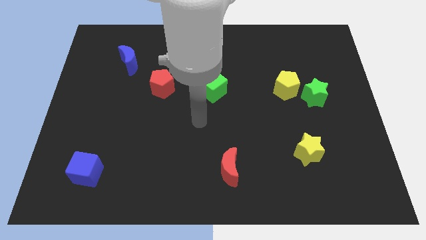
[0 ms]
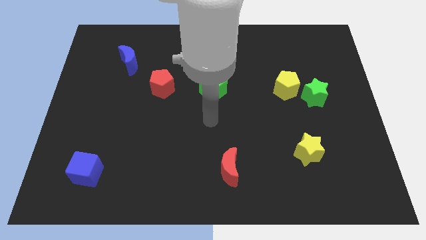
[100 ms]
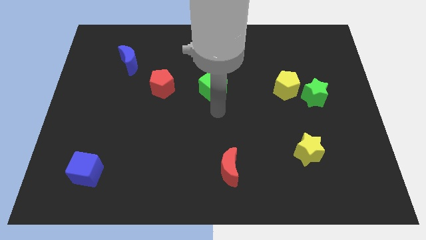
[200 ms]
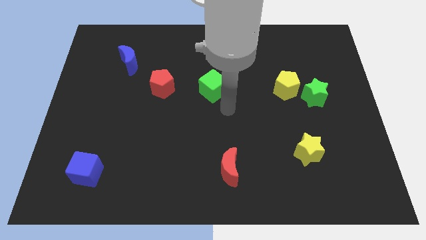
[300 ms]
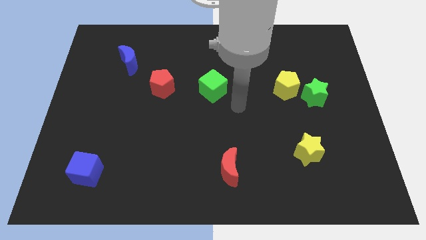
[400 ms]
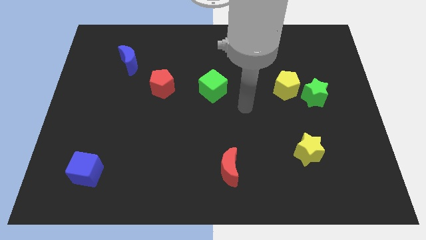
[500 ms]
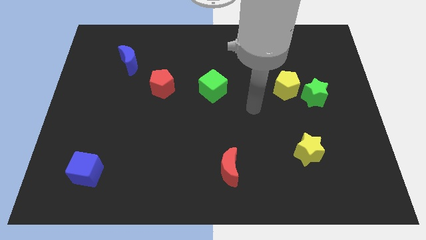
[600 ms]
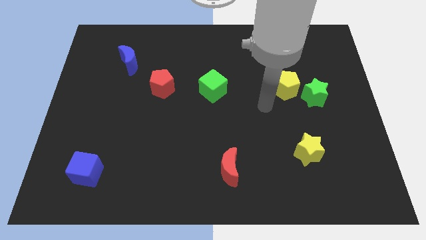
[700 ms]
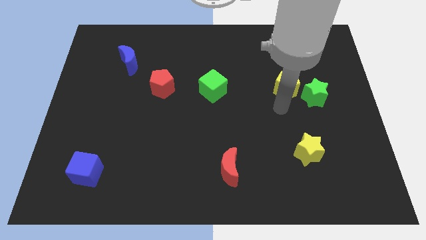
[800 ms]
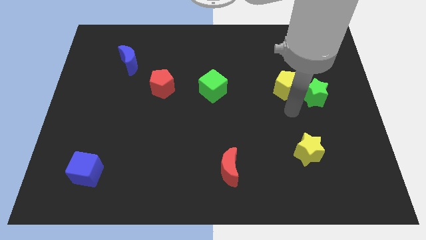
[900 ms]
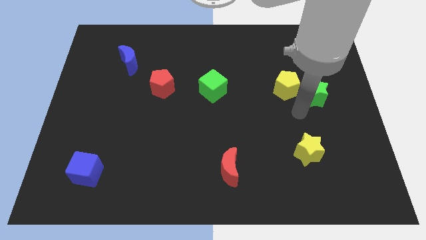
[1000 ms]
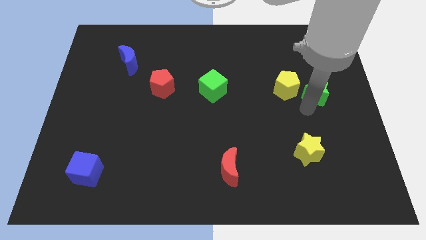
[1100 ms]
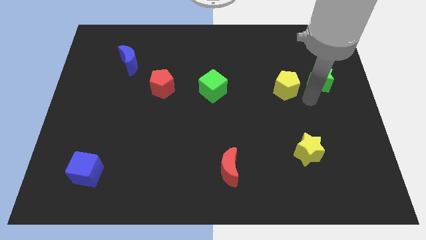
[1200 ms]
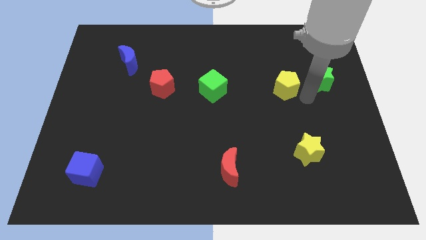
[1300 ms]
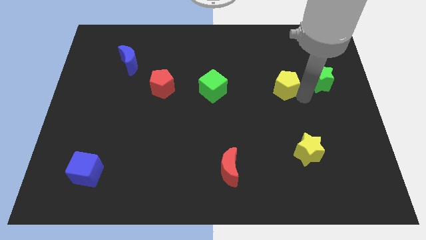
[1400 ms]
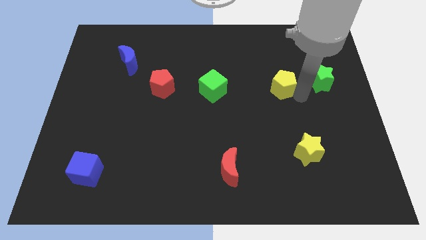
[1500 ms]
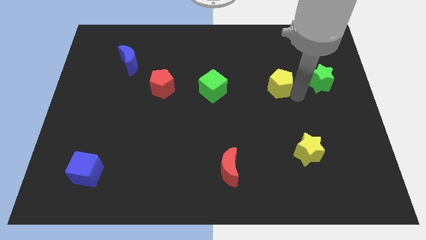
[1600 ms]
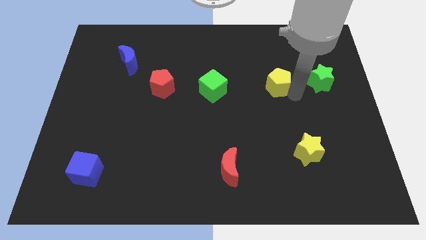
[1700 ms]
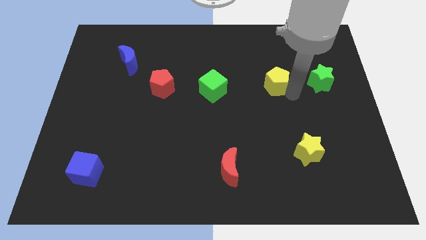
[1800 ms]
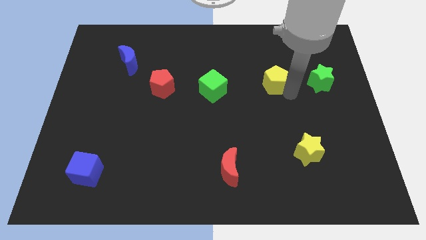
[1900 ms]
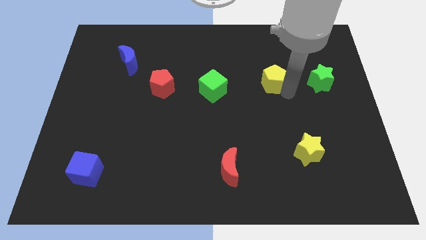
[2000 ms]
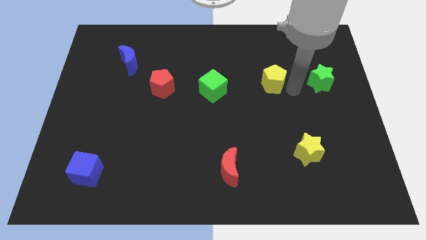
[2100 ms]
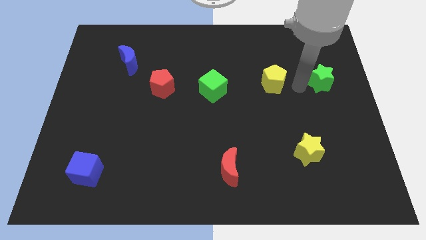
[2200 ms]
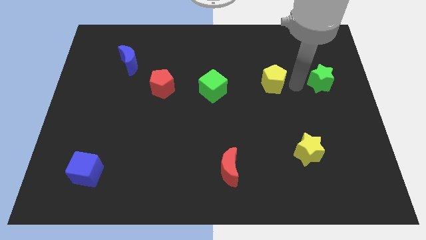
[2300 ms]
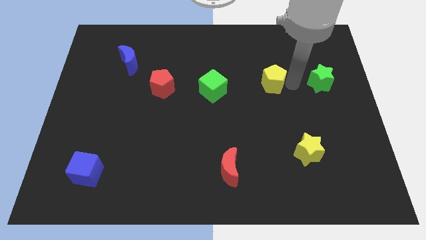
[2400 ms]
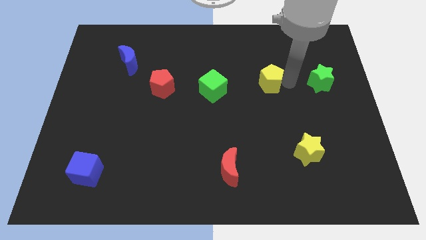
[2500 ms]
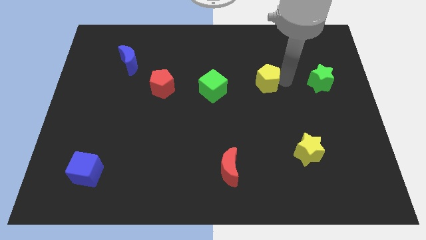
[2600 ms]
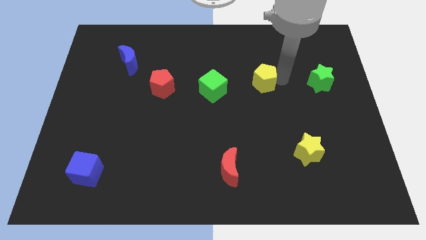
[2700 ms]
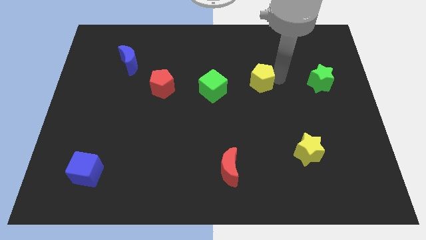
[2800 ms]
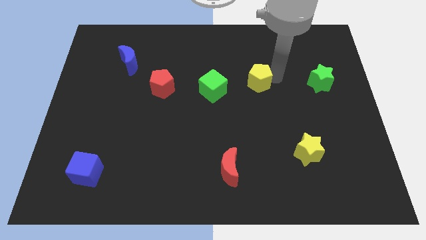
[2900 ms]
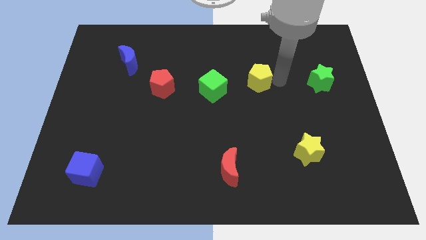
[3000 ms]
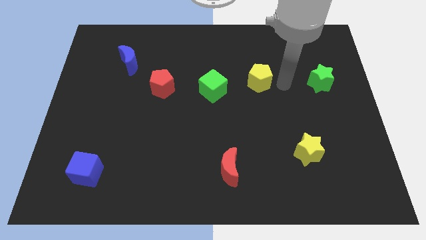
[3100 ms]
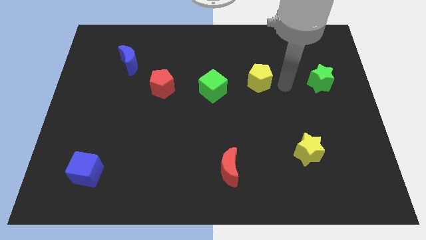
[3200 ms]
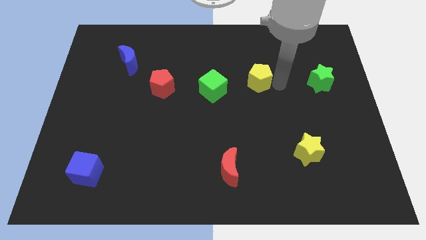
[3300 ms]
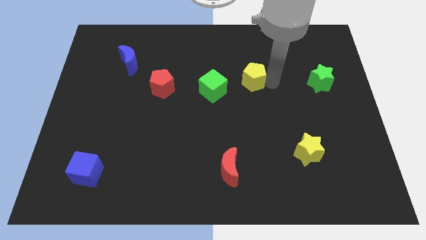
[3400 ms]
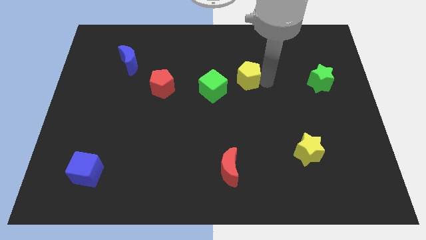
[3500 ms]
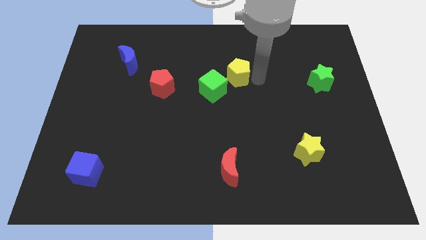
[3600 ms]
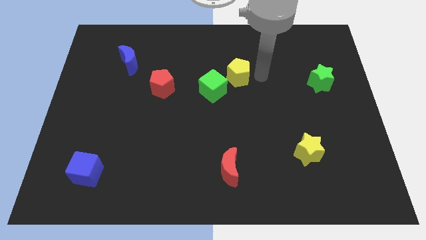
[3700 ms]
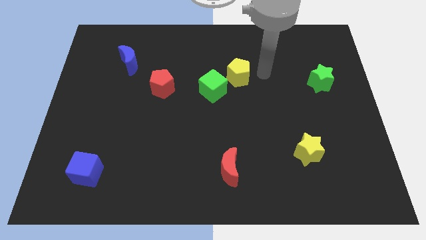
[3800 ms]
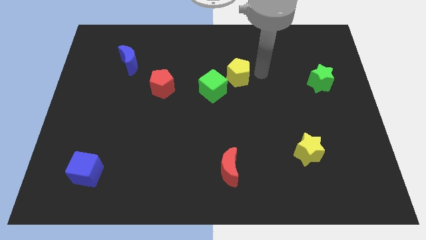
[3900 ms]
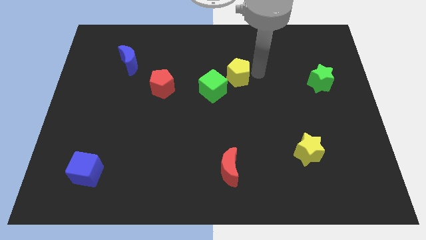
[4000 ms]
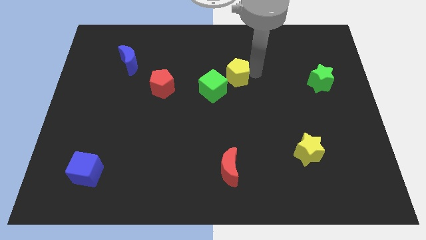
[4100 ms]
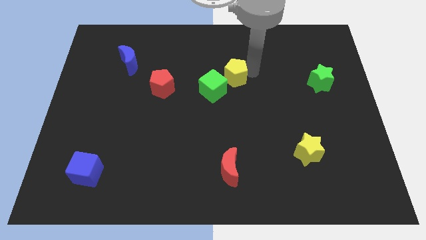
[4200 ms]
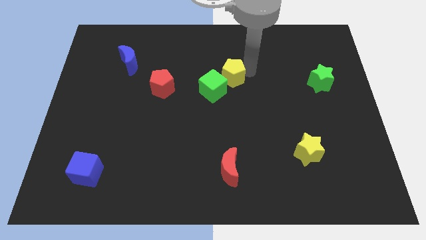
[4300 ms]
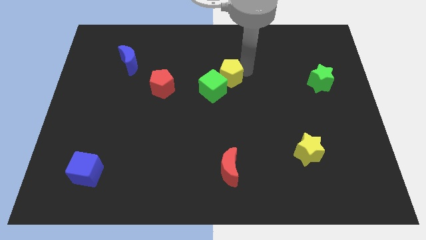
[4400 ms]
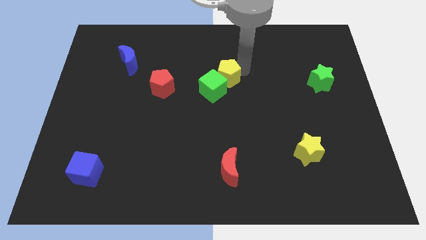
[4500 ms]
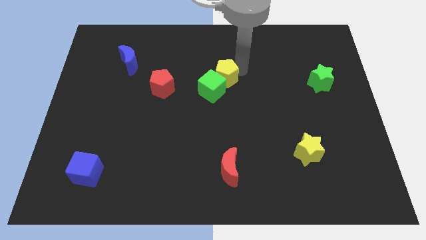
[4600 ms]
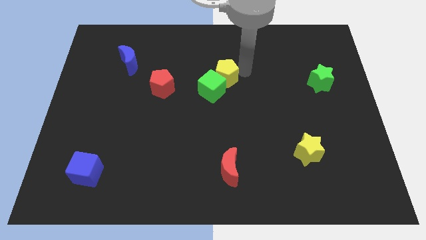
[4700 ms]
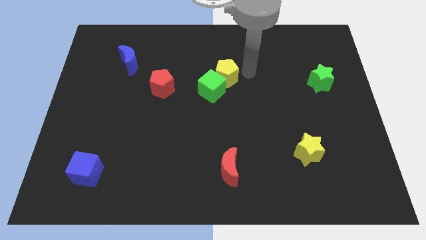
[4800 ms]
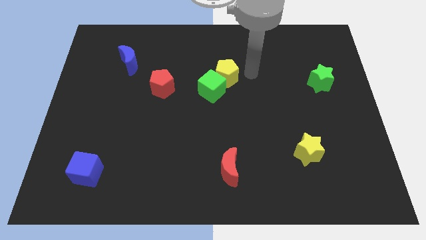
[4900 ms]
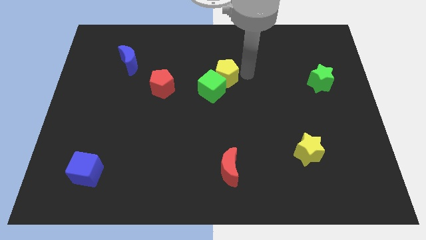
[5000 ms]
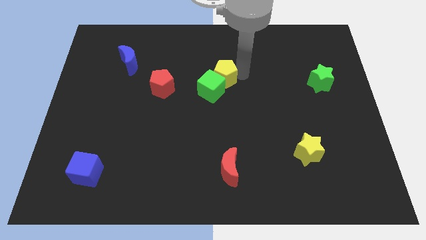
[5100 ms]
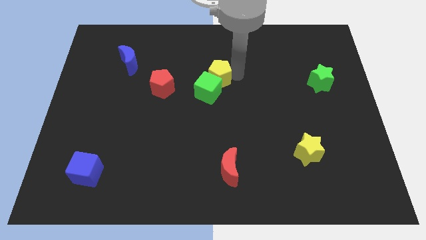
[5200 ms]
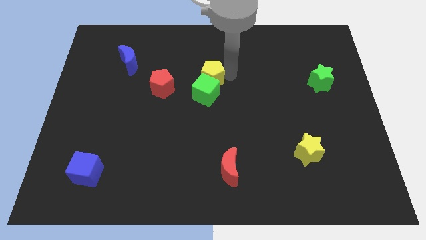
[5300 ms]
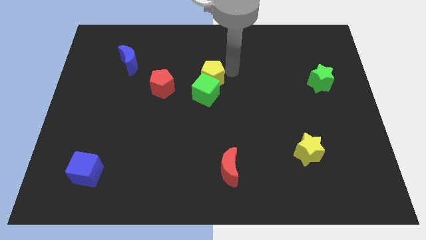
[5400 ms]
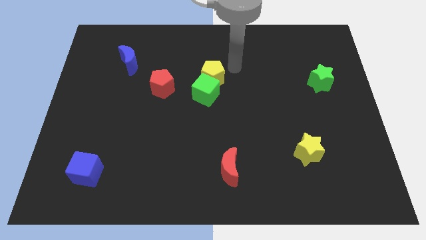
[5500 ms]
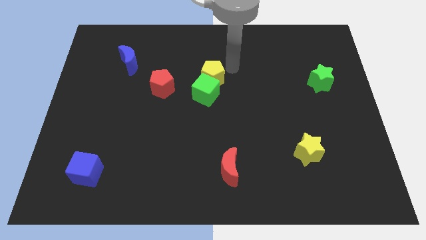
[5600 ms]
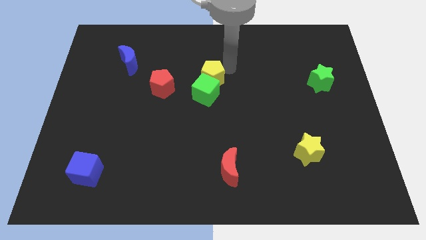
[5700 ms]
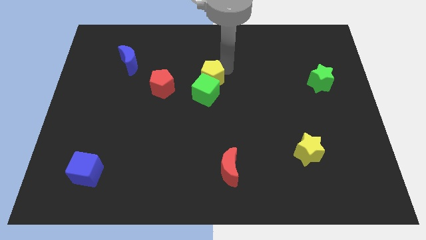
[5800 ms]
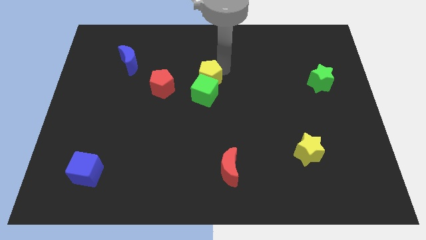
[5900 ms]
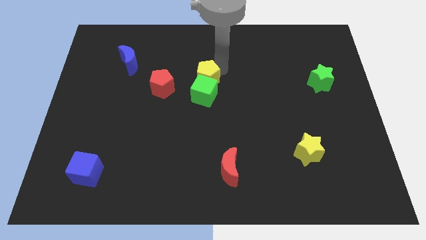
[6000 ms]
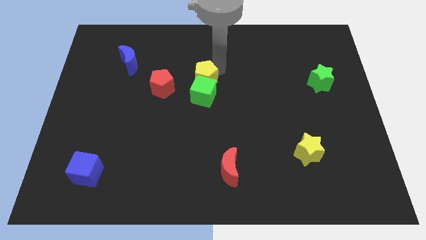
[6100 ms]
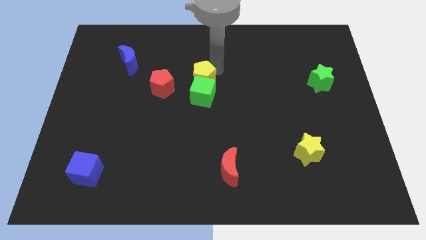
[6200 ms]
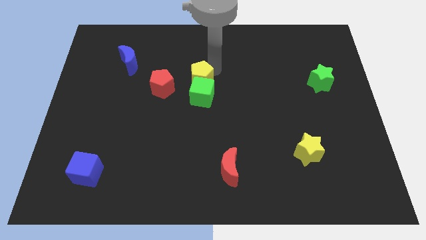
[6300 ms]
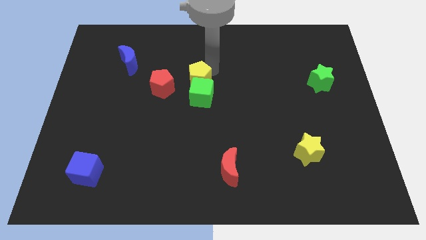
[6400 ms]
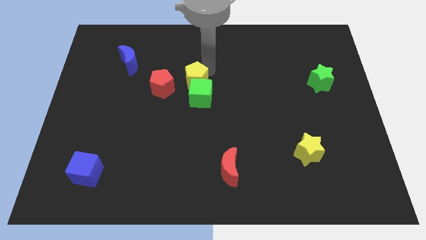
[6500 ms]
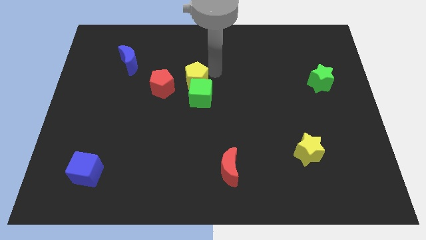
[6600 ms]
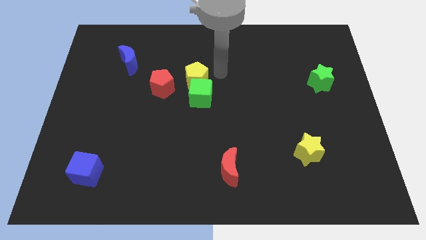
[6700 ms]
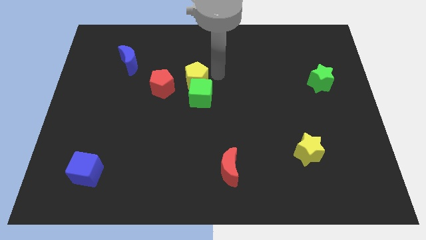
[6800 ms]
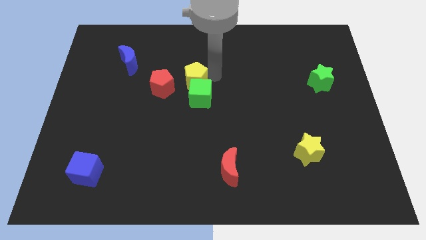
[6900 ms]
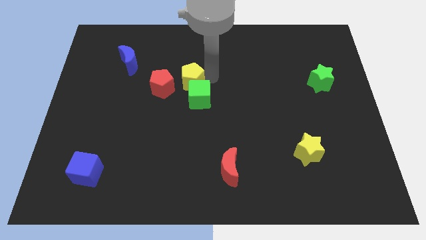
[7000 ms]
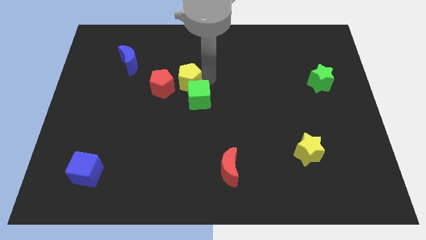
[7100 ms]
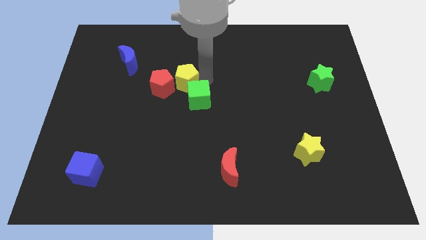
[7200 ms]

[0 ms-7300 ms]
slide the yellow pentagon next to the red pentagon

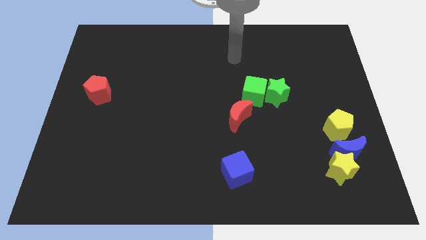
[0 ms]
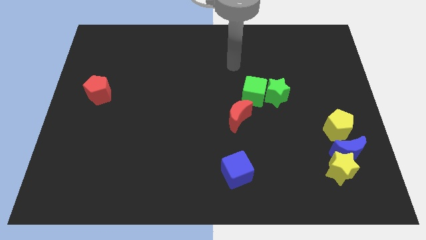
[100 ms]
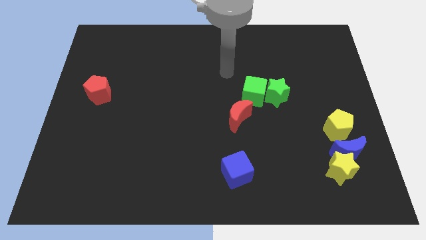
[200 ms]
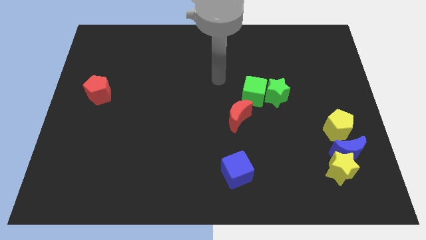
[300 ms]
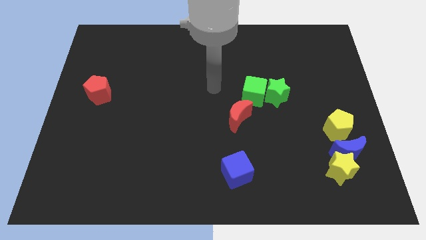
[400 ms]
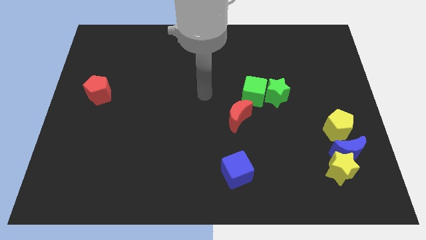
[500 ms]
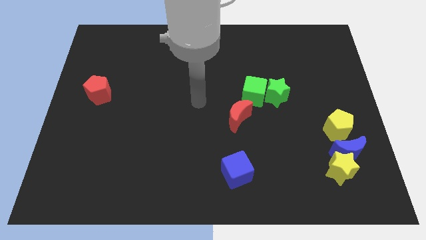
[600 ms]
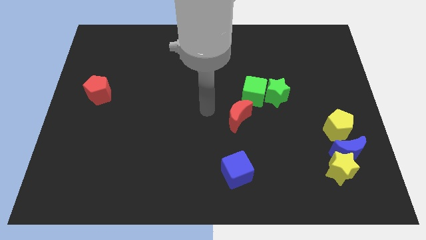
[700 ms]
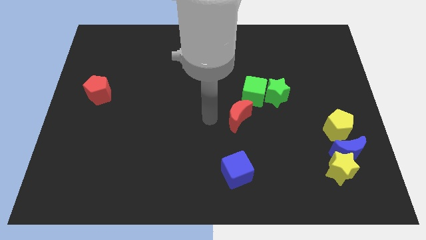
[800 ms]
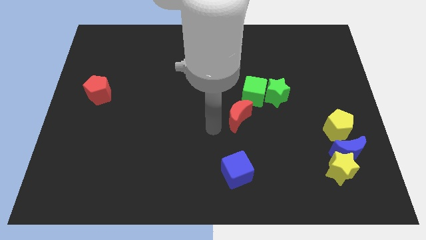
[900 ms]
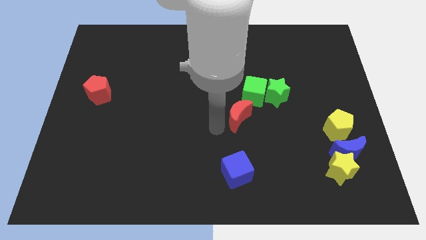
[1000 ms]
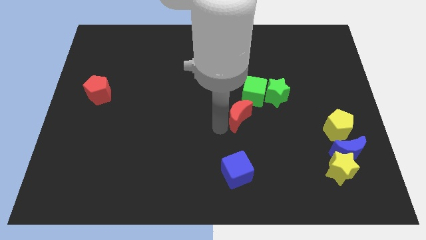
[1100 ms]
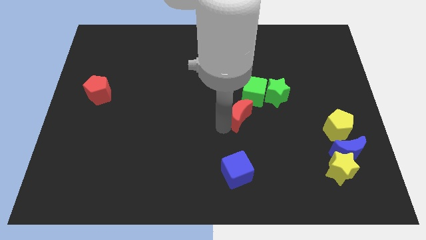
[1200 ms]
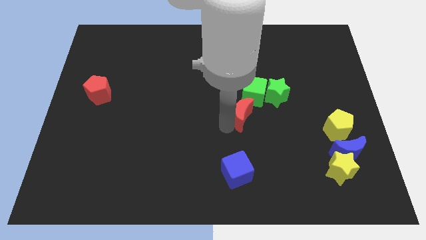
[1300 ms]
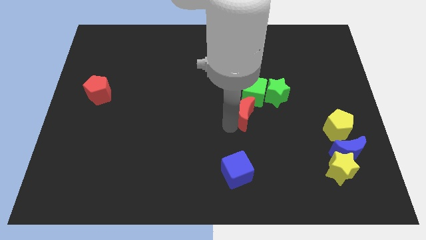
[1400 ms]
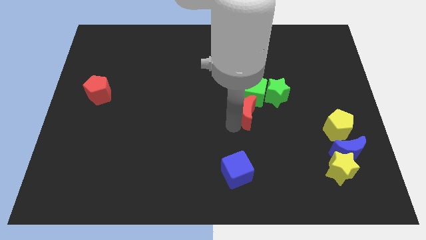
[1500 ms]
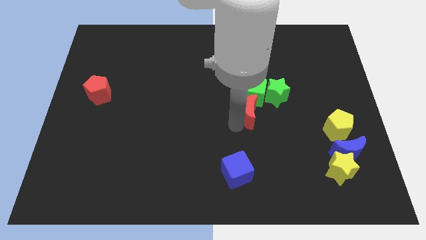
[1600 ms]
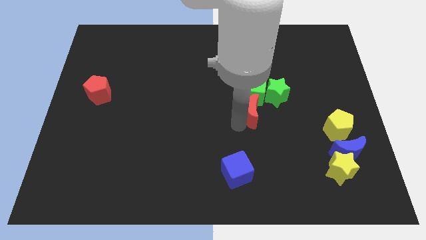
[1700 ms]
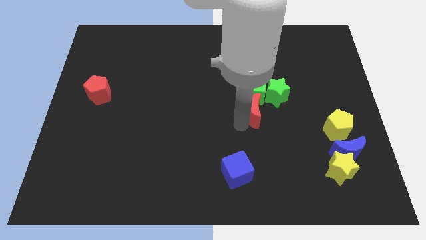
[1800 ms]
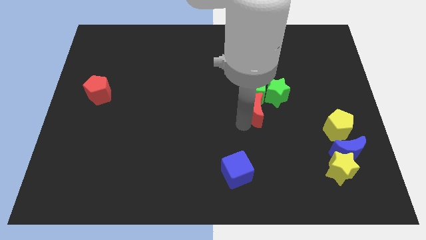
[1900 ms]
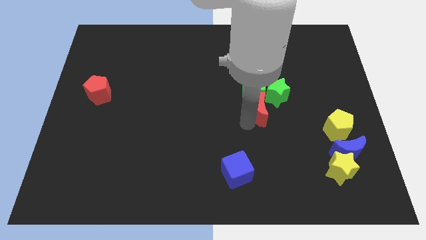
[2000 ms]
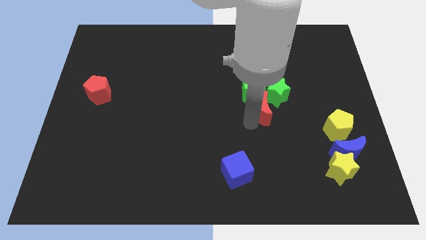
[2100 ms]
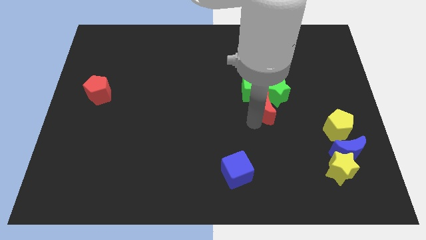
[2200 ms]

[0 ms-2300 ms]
put the red moon close to the green star
